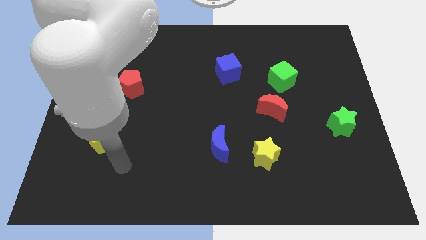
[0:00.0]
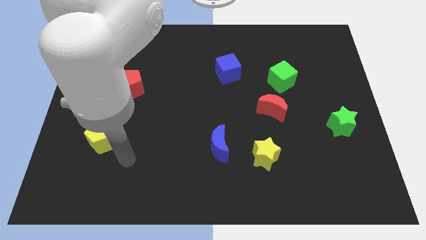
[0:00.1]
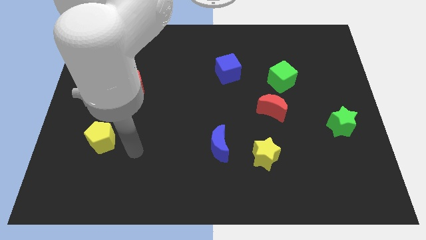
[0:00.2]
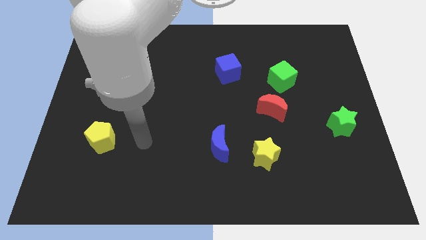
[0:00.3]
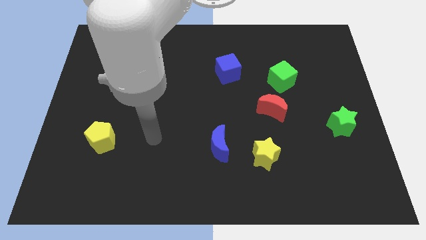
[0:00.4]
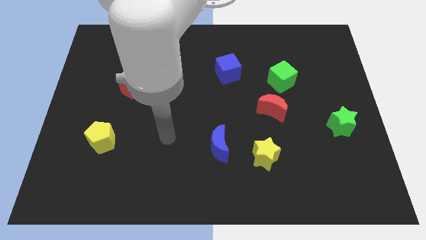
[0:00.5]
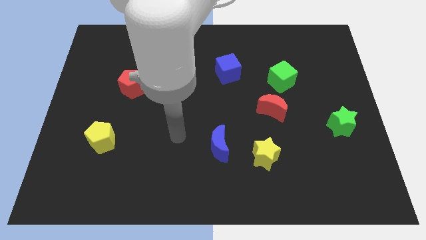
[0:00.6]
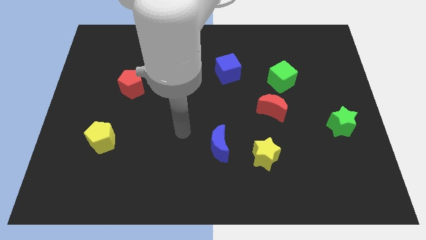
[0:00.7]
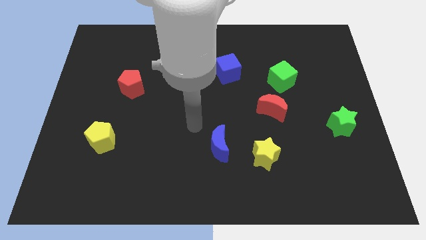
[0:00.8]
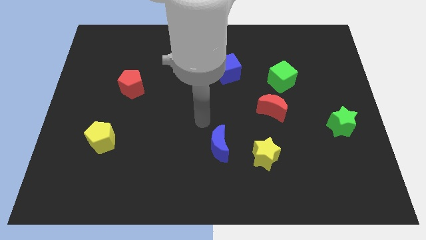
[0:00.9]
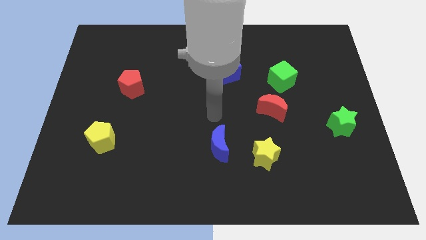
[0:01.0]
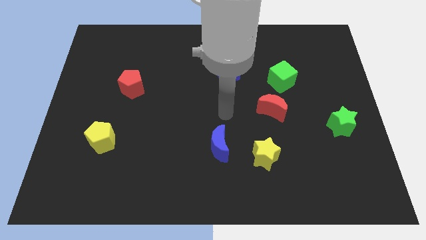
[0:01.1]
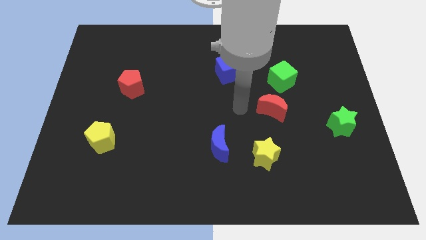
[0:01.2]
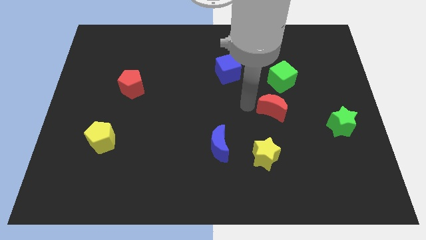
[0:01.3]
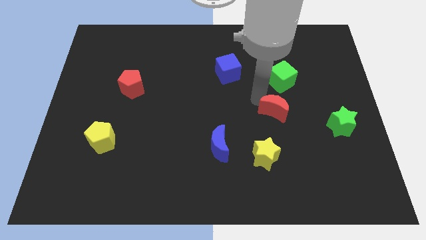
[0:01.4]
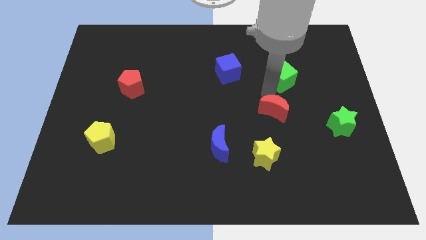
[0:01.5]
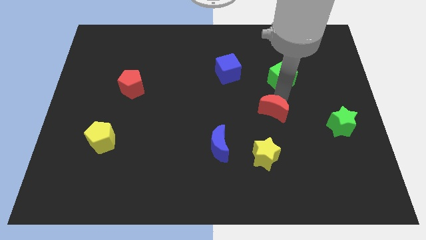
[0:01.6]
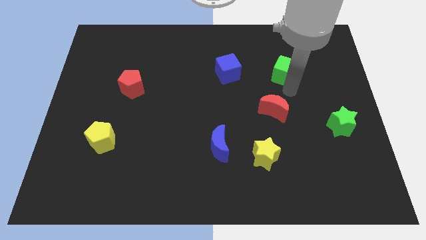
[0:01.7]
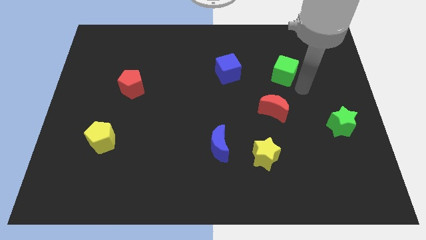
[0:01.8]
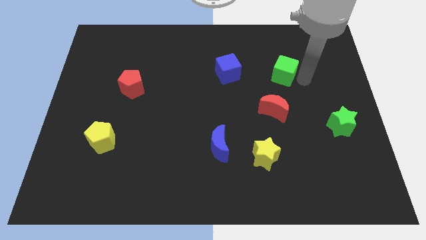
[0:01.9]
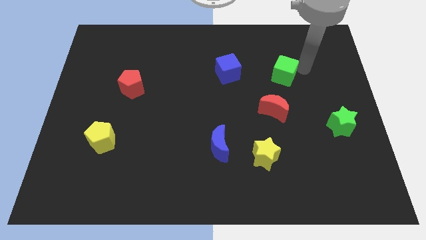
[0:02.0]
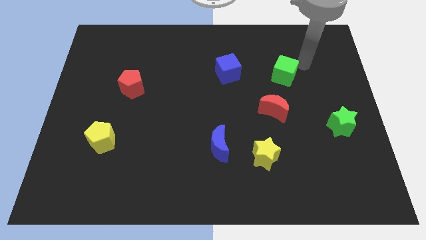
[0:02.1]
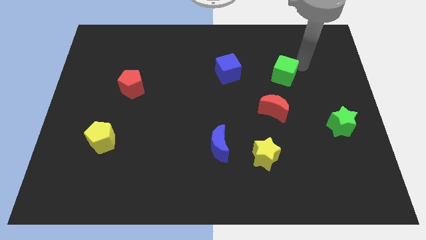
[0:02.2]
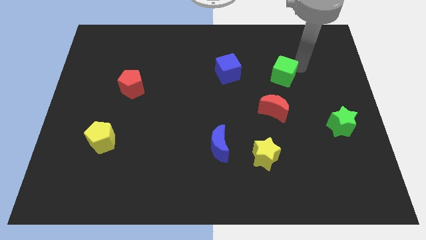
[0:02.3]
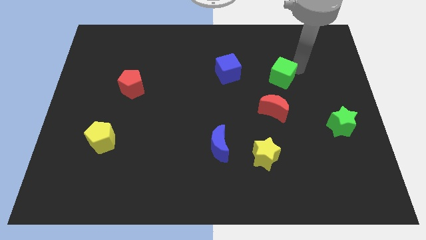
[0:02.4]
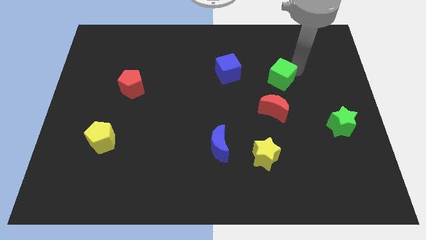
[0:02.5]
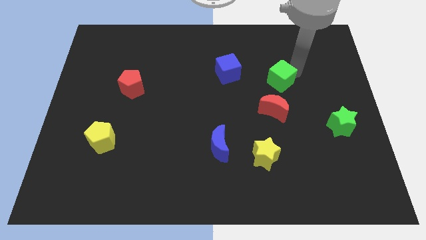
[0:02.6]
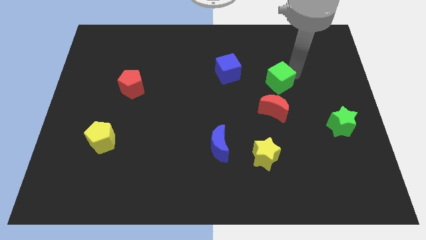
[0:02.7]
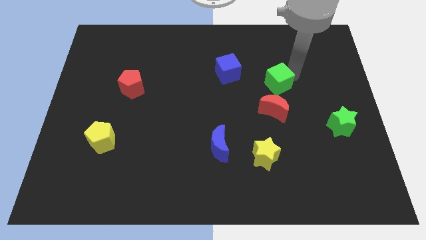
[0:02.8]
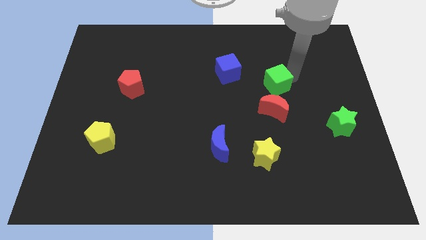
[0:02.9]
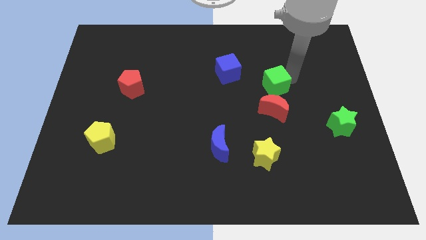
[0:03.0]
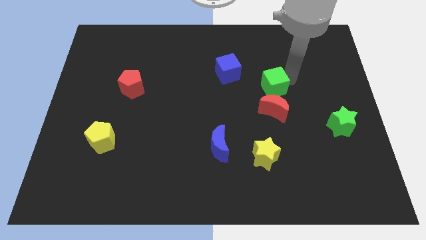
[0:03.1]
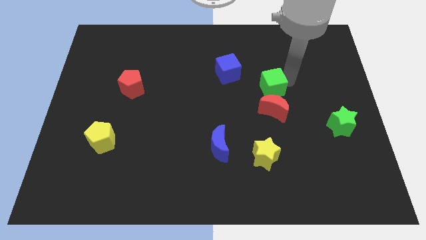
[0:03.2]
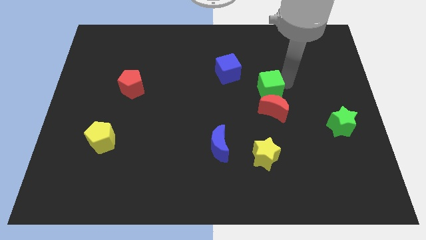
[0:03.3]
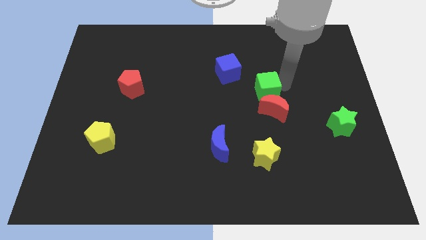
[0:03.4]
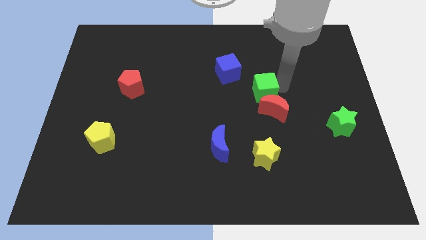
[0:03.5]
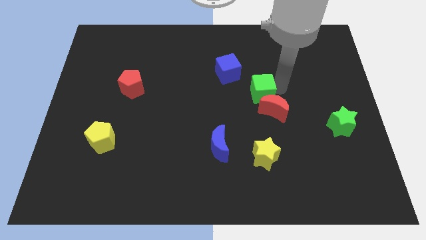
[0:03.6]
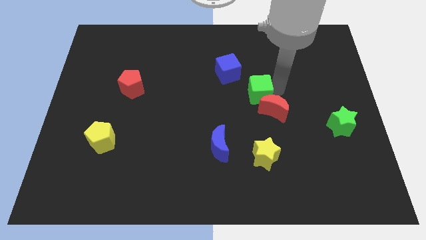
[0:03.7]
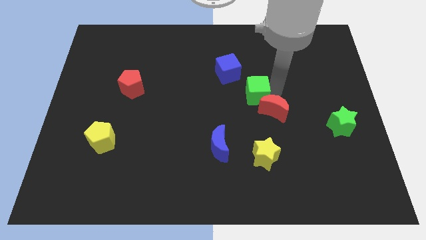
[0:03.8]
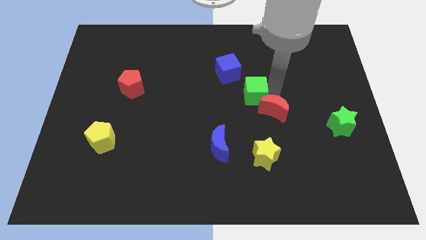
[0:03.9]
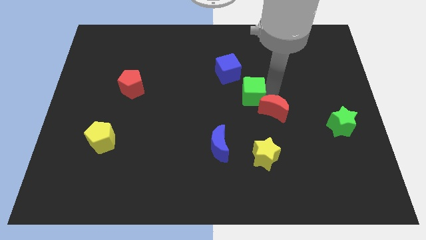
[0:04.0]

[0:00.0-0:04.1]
move the green cube left a little bit

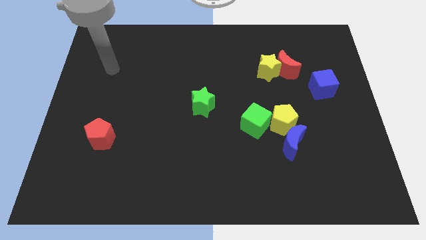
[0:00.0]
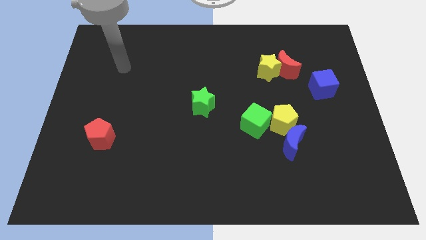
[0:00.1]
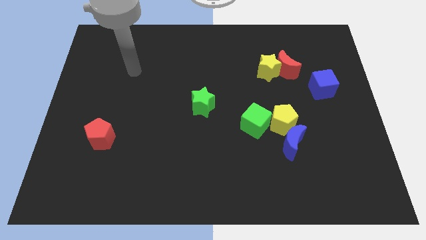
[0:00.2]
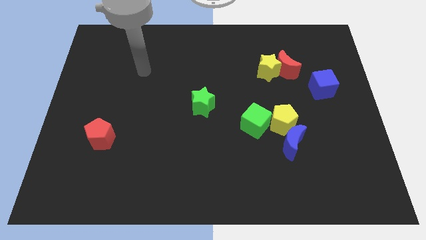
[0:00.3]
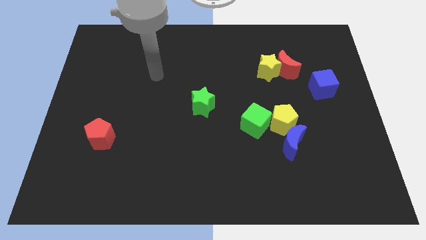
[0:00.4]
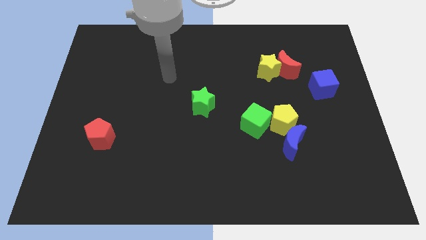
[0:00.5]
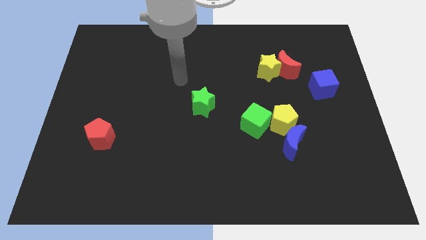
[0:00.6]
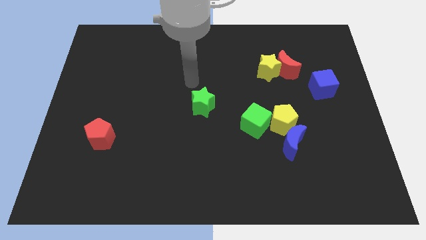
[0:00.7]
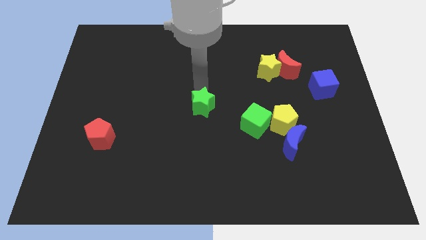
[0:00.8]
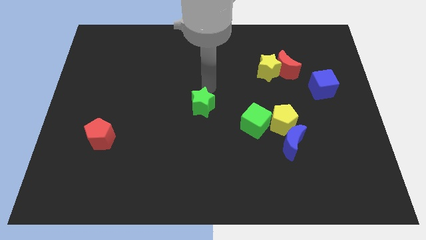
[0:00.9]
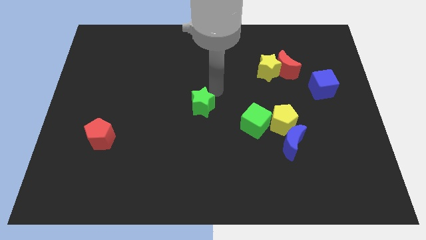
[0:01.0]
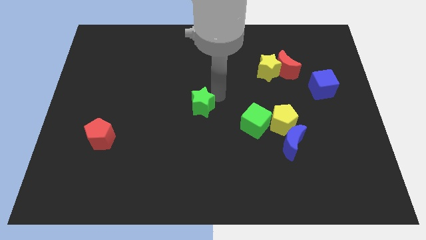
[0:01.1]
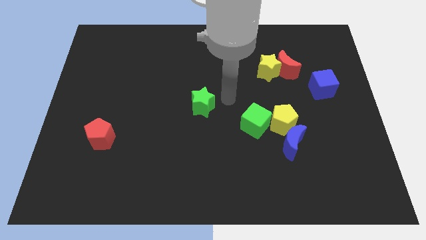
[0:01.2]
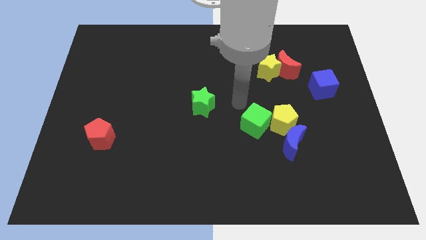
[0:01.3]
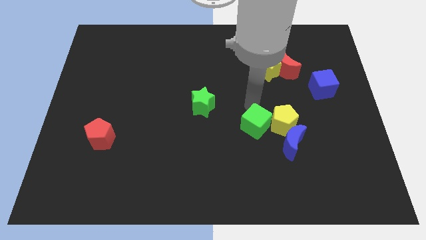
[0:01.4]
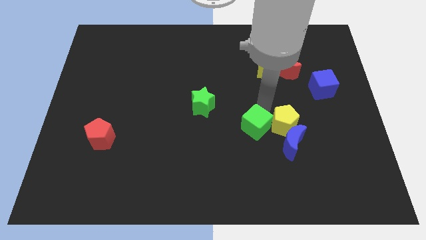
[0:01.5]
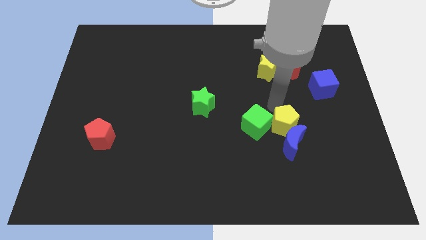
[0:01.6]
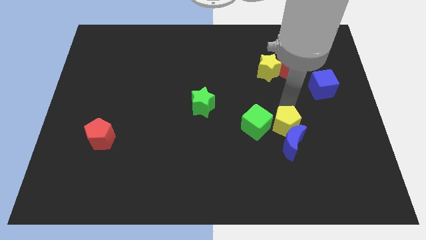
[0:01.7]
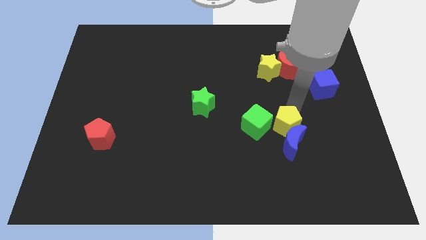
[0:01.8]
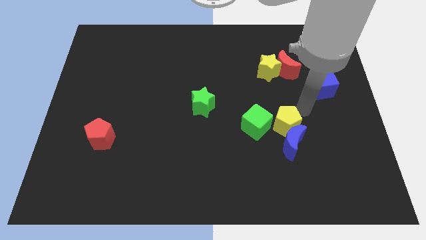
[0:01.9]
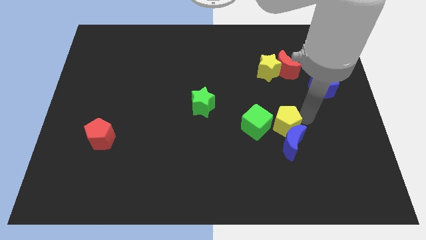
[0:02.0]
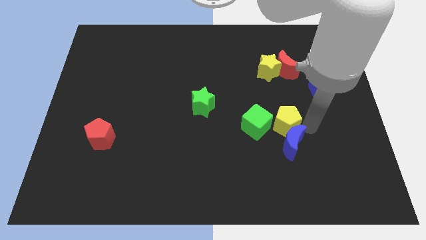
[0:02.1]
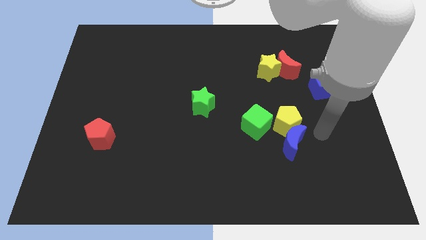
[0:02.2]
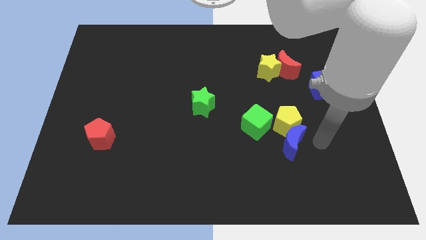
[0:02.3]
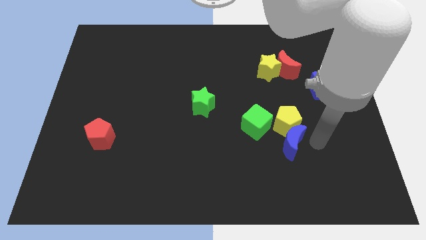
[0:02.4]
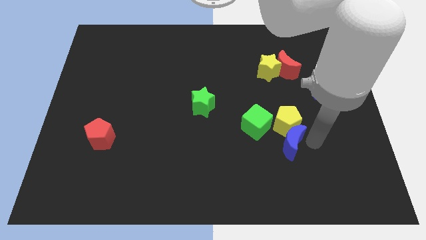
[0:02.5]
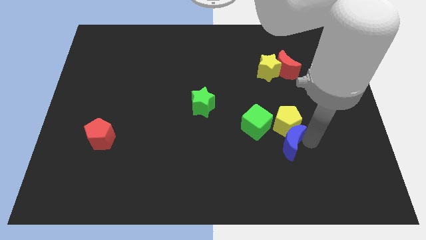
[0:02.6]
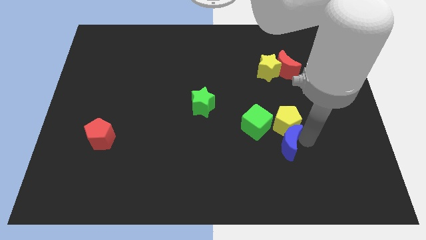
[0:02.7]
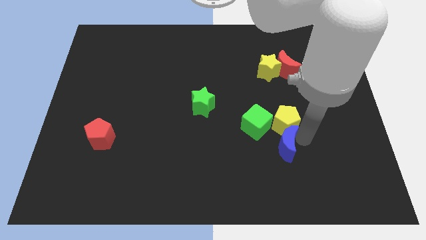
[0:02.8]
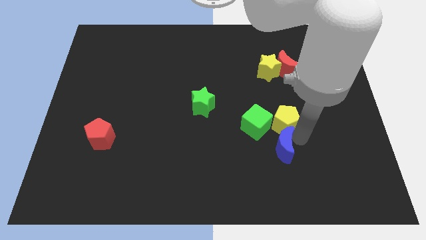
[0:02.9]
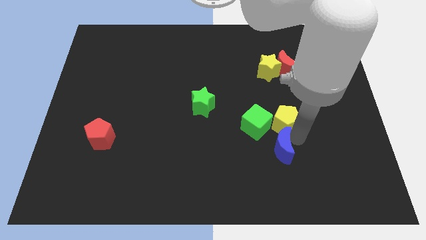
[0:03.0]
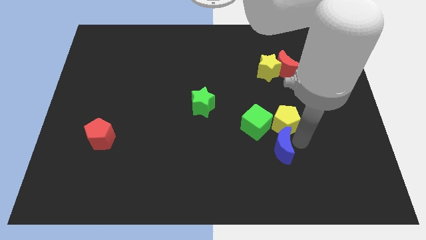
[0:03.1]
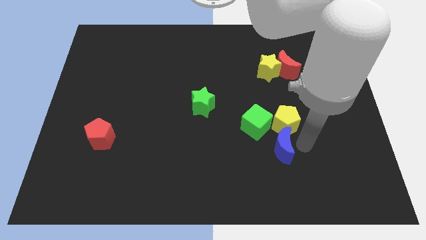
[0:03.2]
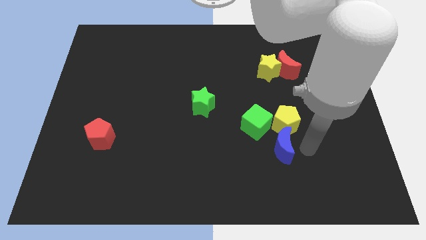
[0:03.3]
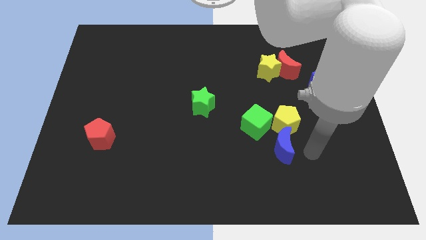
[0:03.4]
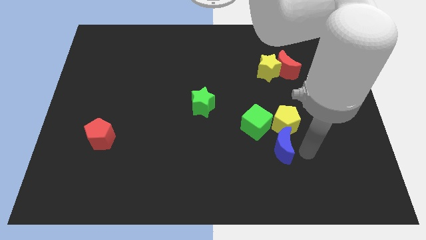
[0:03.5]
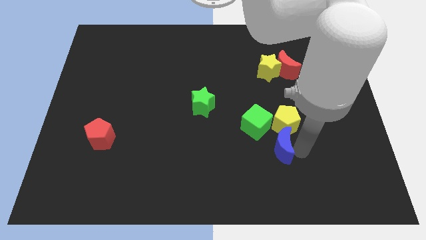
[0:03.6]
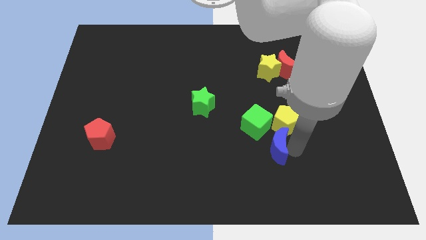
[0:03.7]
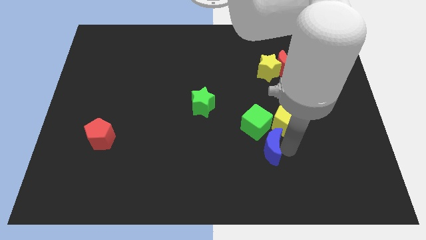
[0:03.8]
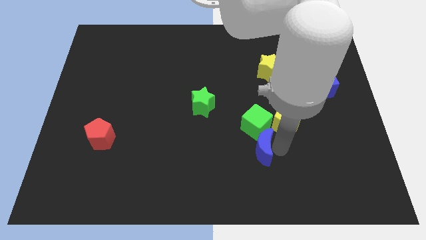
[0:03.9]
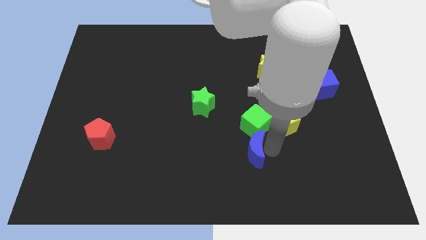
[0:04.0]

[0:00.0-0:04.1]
slide the blue moon somewhat to the left
